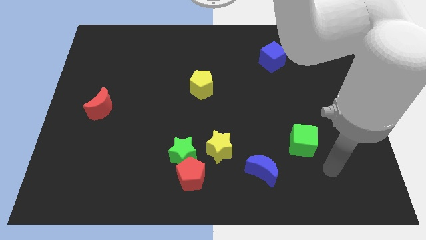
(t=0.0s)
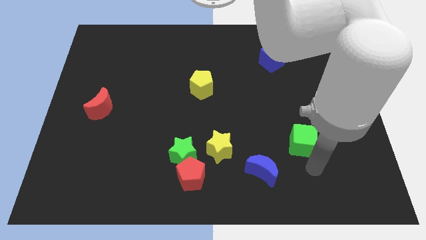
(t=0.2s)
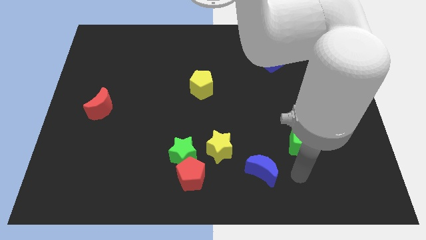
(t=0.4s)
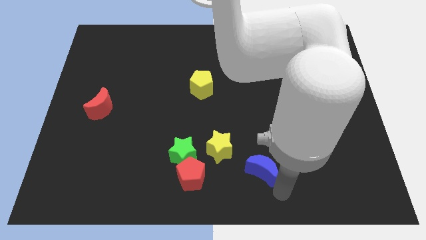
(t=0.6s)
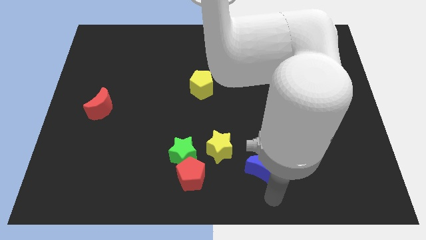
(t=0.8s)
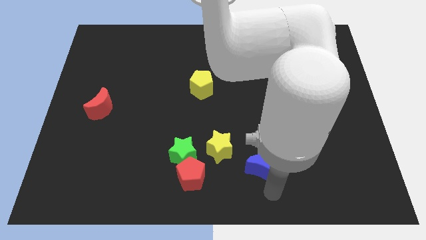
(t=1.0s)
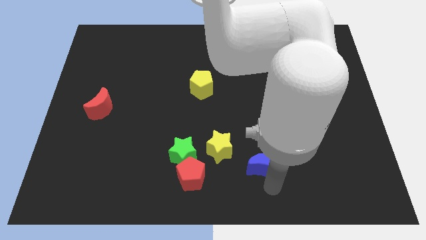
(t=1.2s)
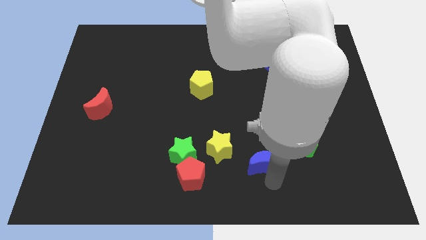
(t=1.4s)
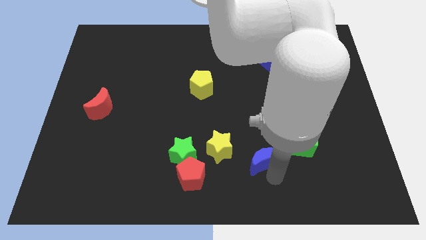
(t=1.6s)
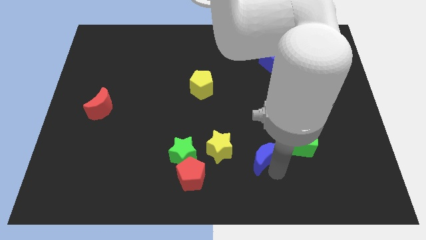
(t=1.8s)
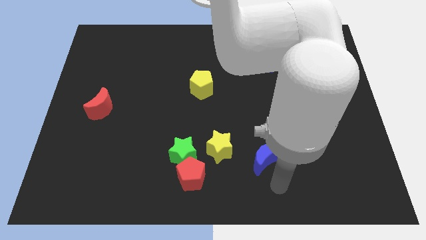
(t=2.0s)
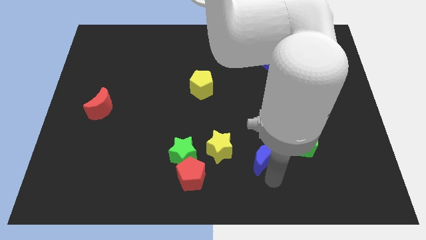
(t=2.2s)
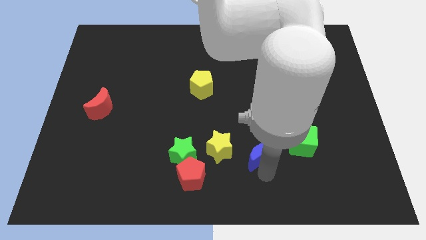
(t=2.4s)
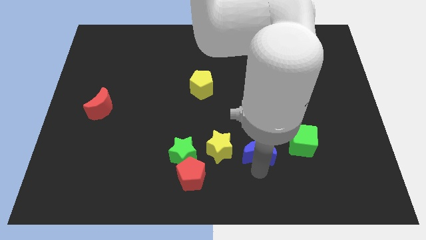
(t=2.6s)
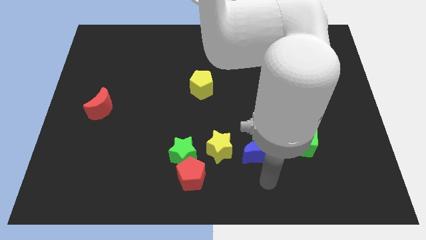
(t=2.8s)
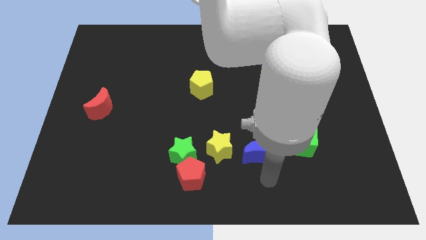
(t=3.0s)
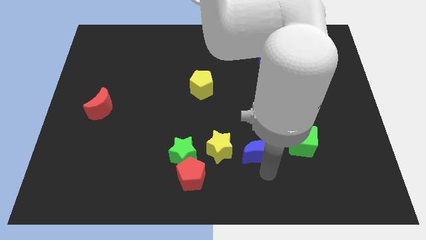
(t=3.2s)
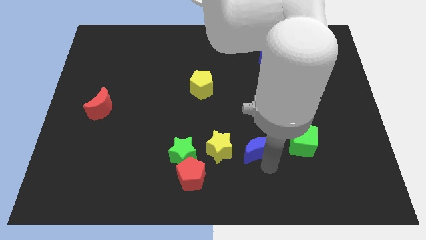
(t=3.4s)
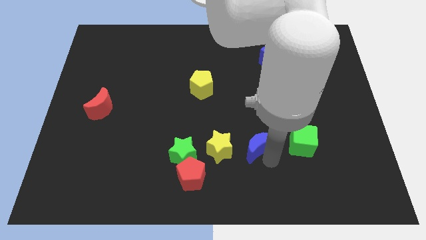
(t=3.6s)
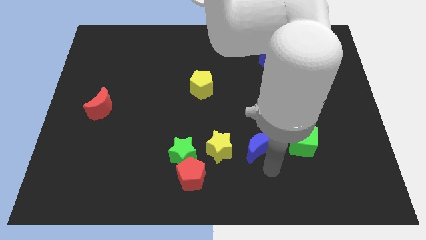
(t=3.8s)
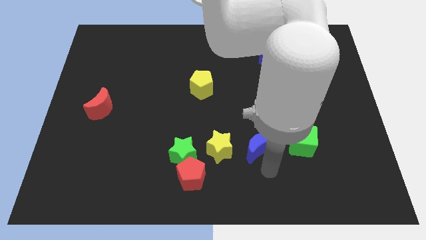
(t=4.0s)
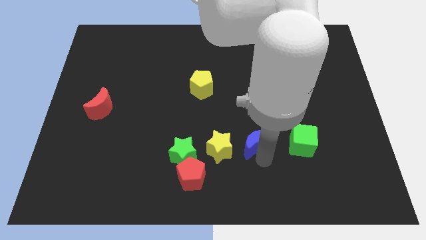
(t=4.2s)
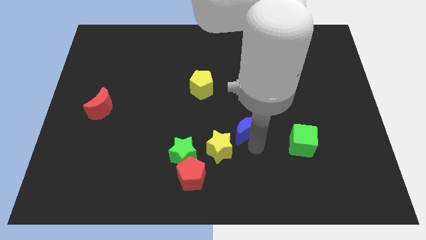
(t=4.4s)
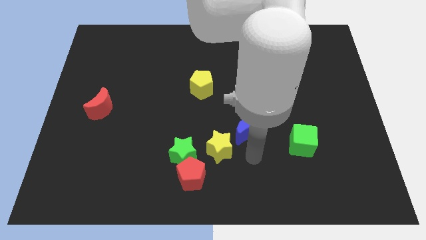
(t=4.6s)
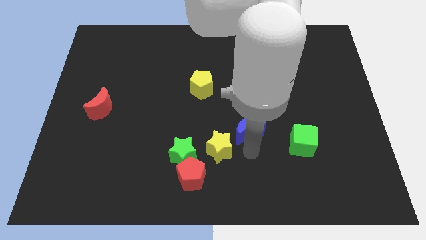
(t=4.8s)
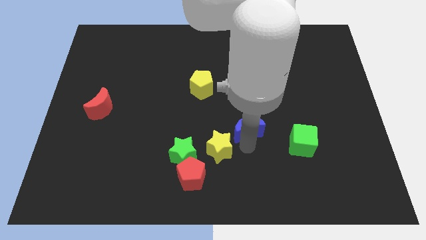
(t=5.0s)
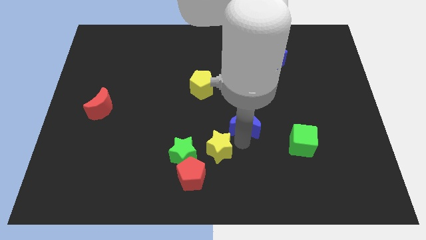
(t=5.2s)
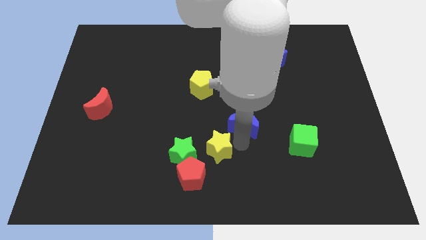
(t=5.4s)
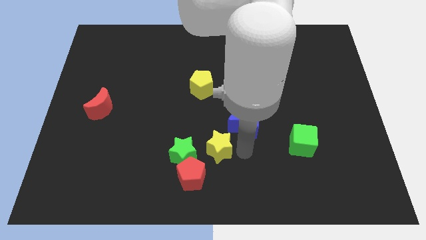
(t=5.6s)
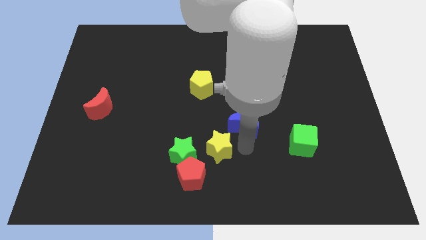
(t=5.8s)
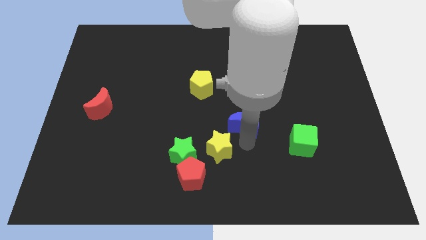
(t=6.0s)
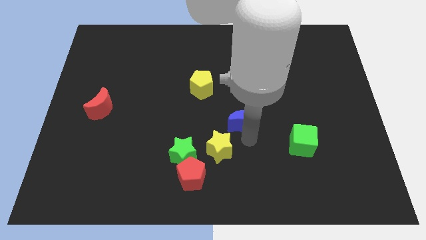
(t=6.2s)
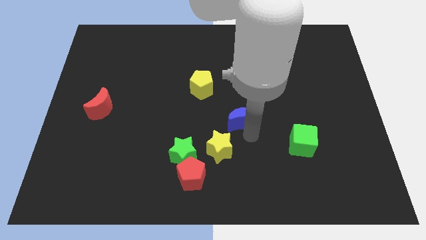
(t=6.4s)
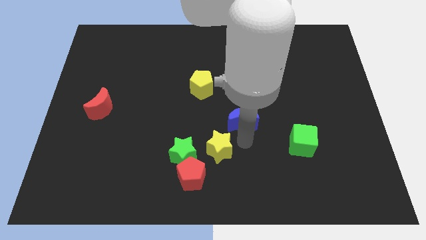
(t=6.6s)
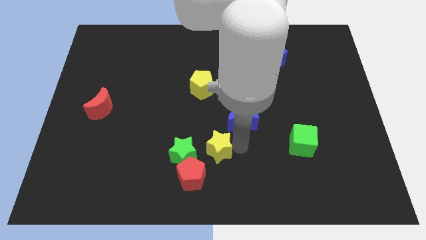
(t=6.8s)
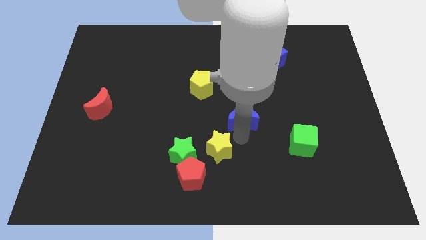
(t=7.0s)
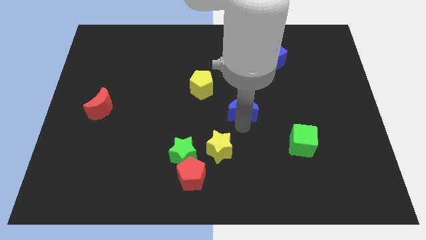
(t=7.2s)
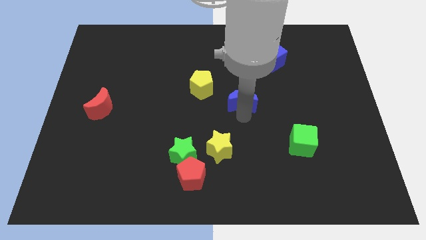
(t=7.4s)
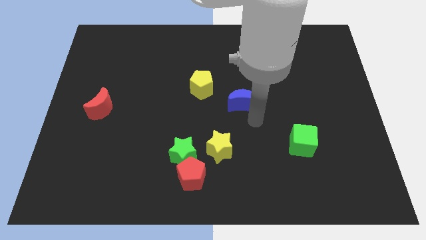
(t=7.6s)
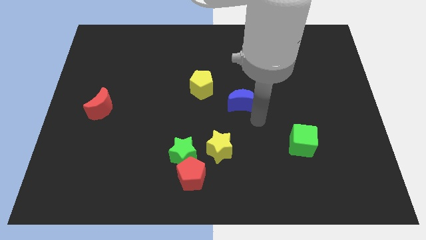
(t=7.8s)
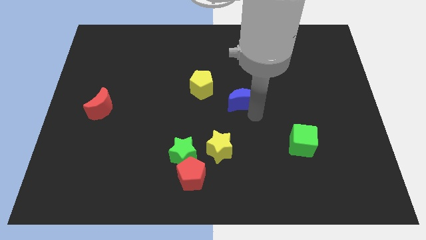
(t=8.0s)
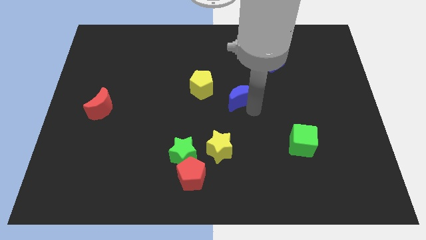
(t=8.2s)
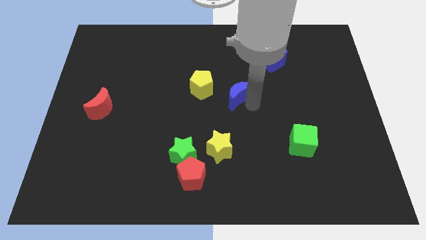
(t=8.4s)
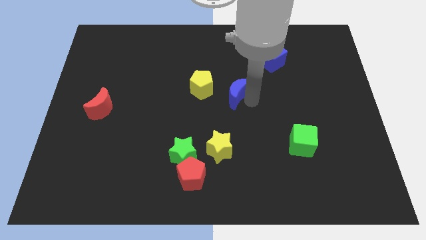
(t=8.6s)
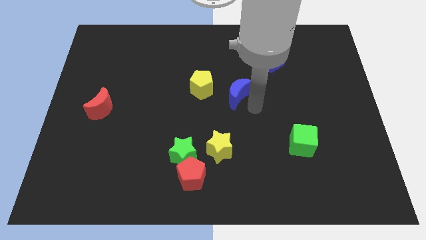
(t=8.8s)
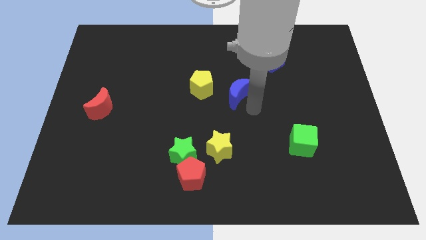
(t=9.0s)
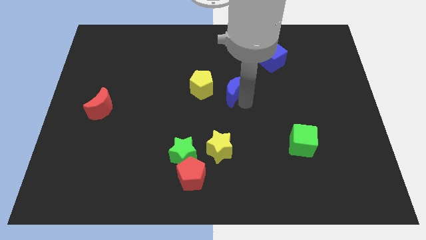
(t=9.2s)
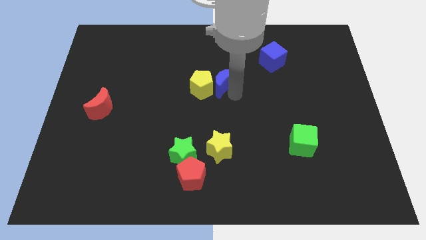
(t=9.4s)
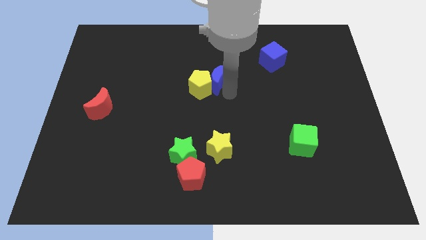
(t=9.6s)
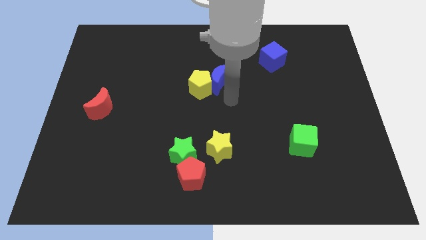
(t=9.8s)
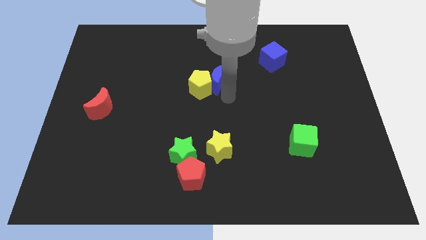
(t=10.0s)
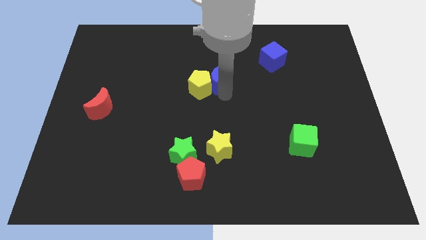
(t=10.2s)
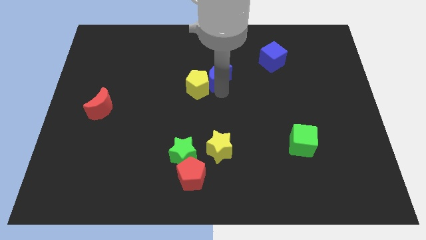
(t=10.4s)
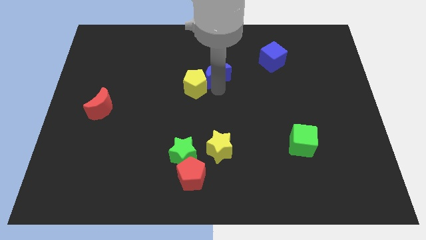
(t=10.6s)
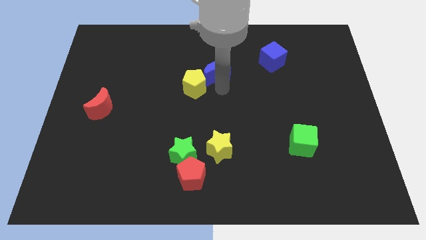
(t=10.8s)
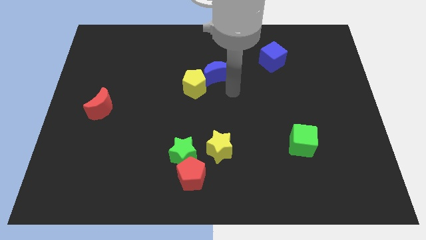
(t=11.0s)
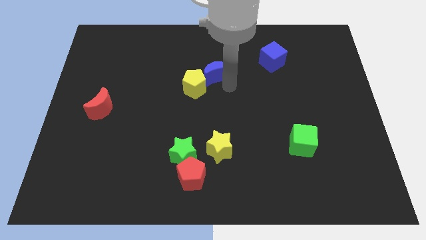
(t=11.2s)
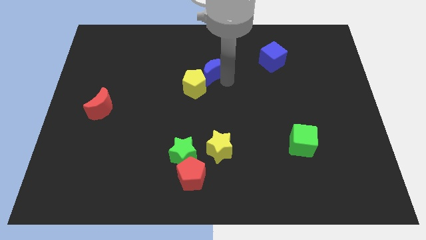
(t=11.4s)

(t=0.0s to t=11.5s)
slide the blue moon to the top side of the yellow pentagon

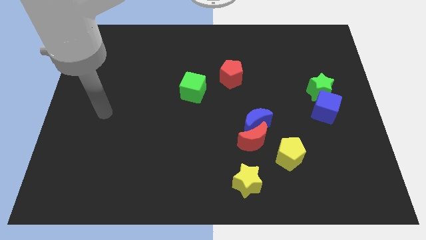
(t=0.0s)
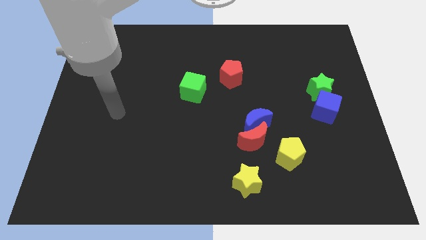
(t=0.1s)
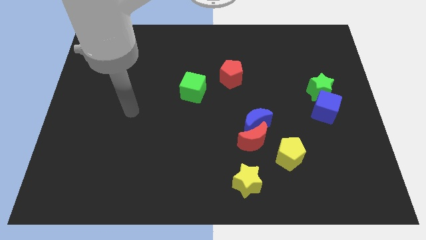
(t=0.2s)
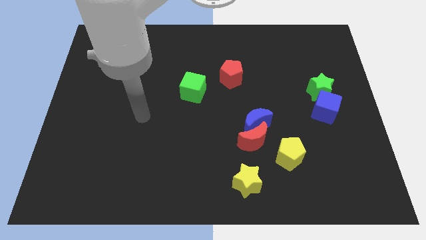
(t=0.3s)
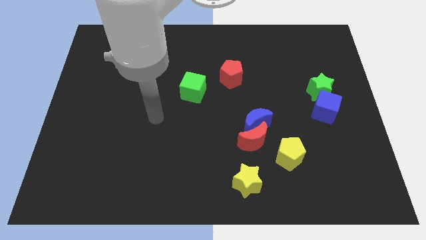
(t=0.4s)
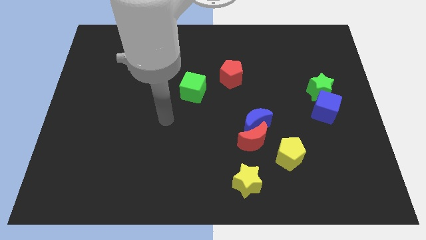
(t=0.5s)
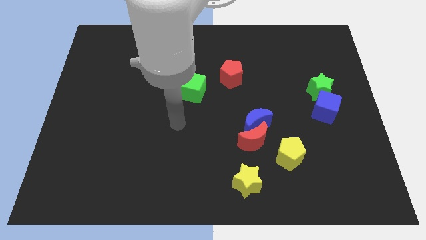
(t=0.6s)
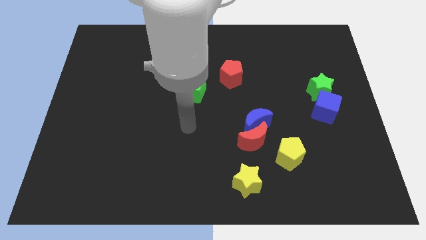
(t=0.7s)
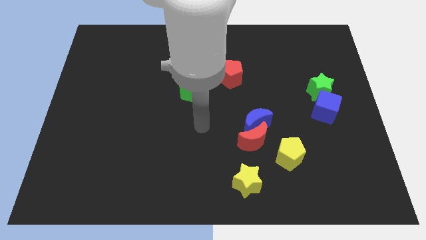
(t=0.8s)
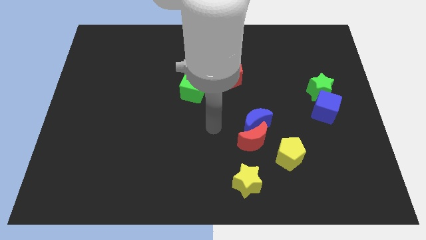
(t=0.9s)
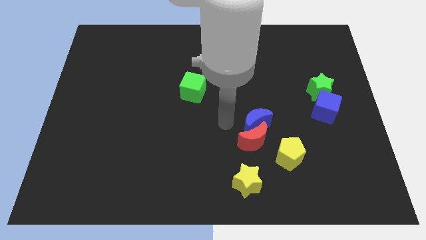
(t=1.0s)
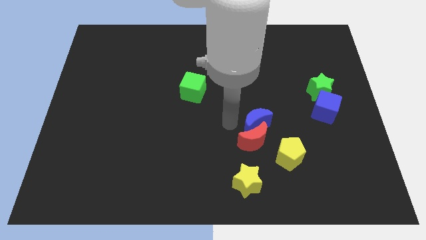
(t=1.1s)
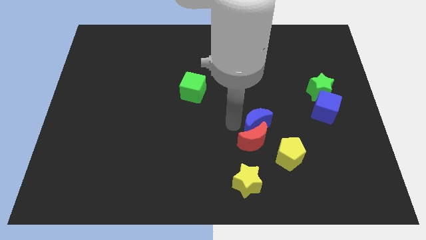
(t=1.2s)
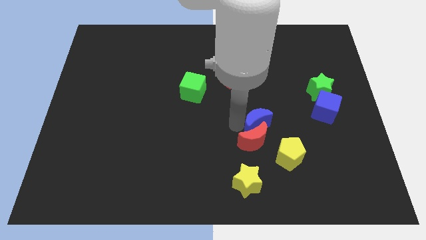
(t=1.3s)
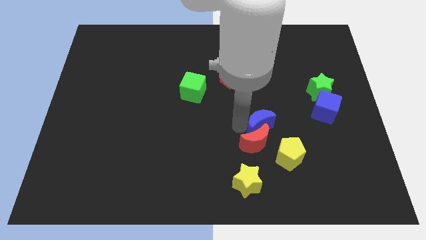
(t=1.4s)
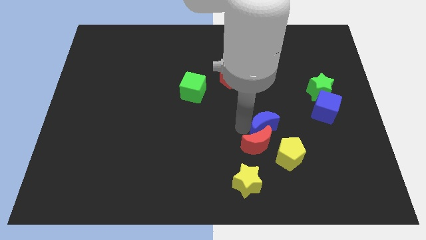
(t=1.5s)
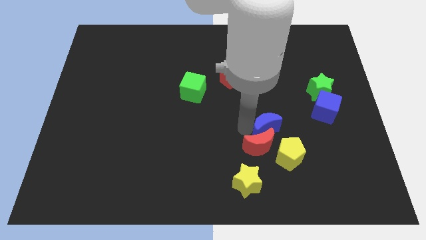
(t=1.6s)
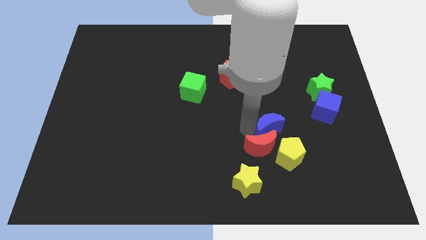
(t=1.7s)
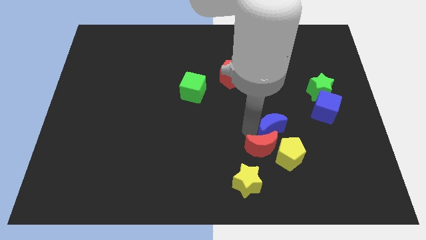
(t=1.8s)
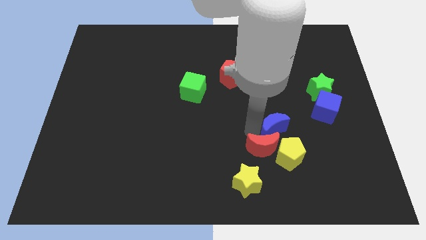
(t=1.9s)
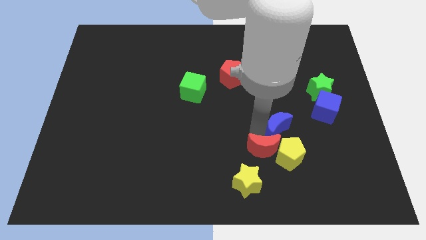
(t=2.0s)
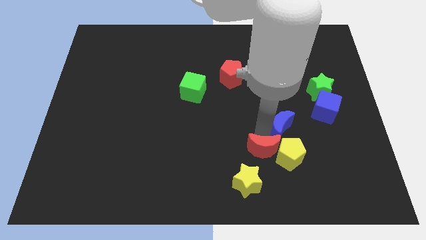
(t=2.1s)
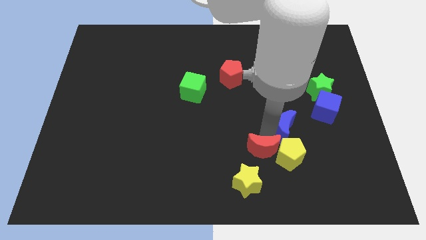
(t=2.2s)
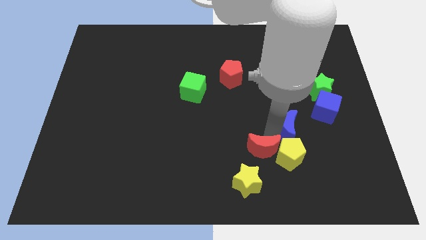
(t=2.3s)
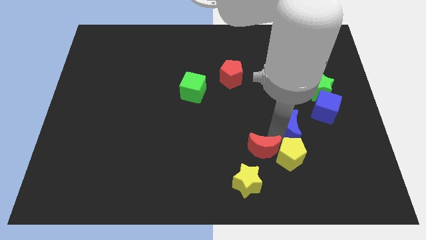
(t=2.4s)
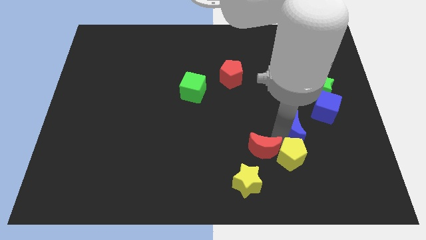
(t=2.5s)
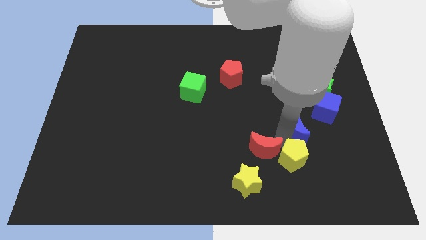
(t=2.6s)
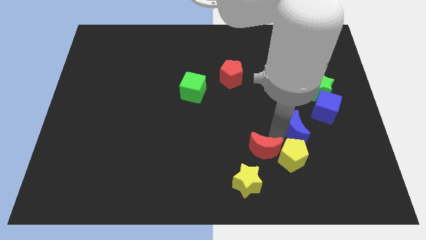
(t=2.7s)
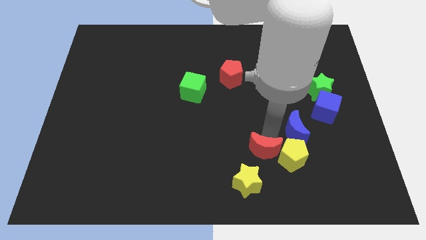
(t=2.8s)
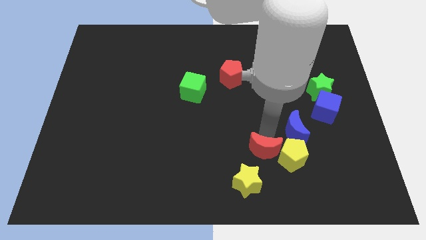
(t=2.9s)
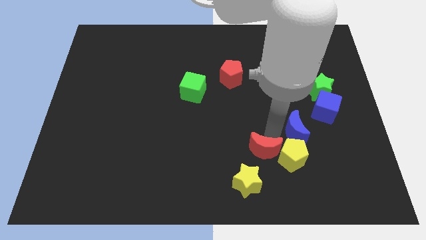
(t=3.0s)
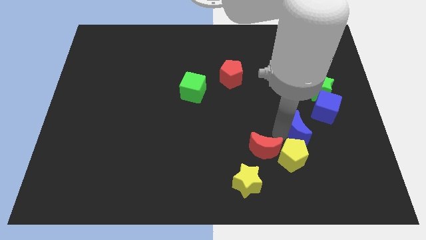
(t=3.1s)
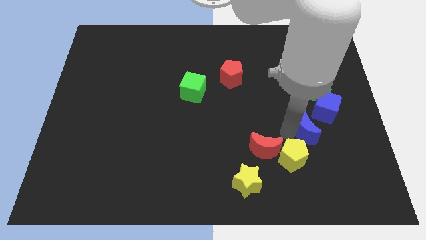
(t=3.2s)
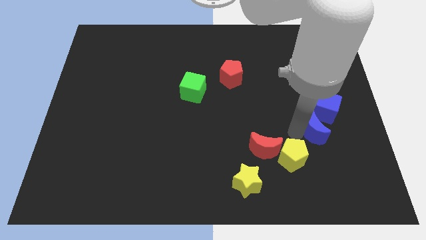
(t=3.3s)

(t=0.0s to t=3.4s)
put the blue moon below the green star
